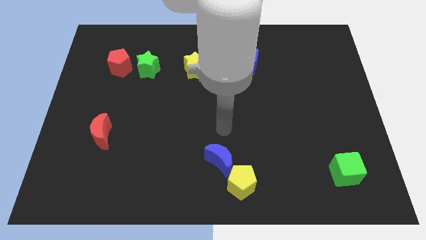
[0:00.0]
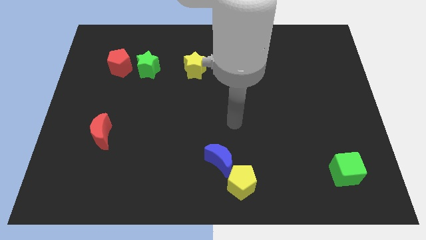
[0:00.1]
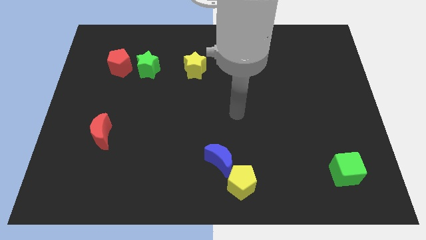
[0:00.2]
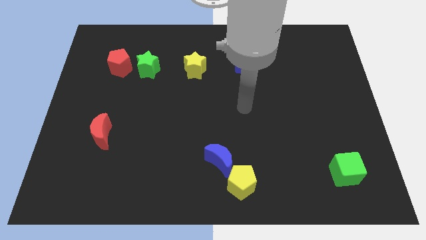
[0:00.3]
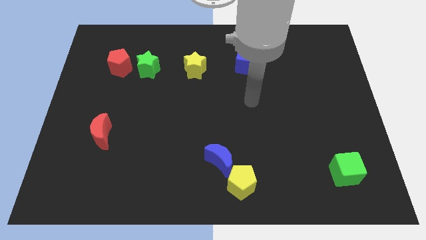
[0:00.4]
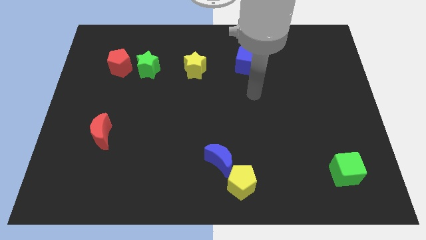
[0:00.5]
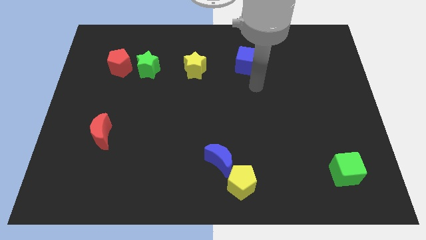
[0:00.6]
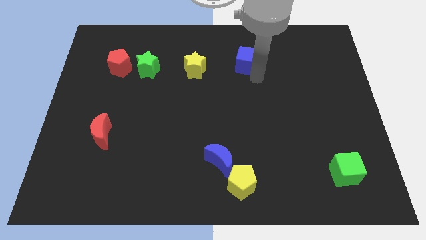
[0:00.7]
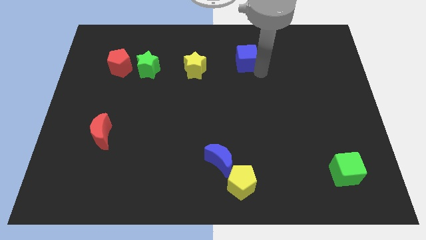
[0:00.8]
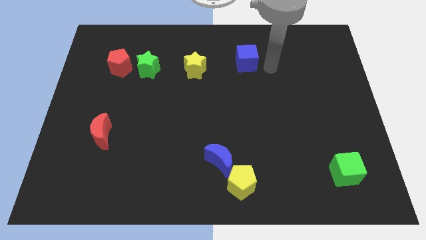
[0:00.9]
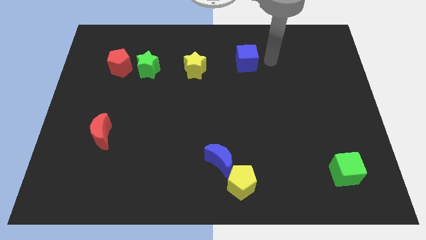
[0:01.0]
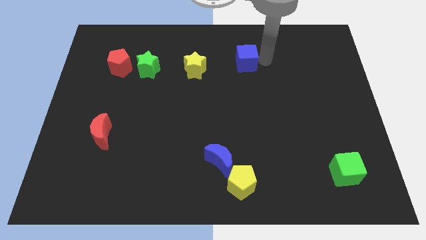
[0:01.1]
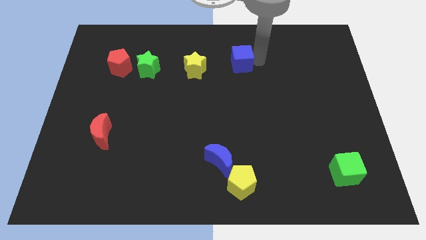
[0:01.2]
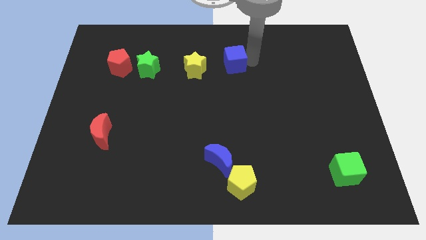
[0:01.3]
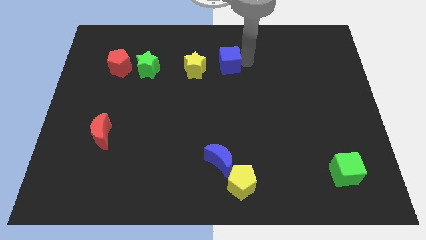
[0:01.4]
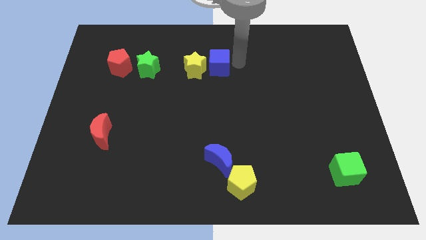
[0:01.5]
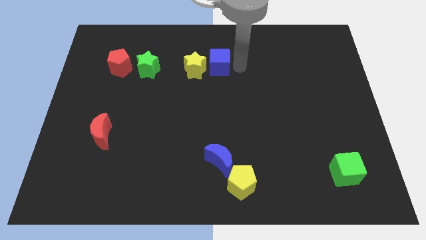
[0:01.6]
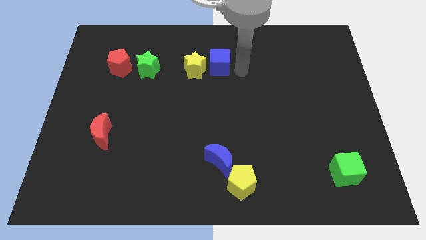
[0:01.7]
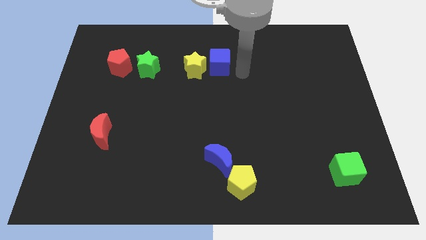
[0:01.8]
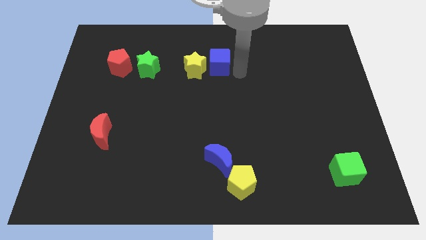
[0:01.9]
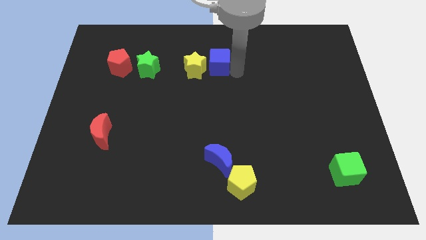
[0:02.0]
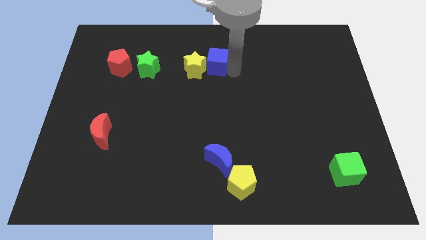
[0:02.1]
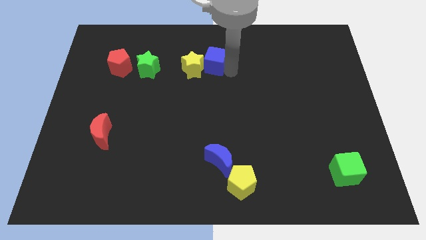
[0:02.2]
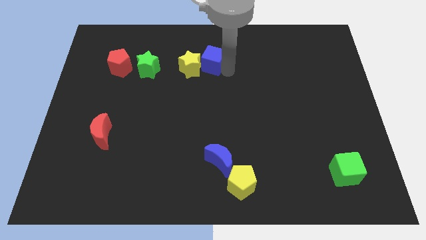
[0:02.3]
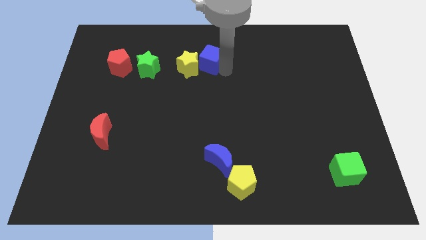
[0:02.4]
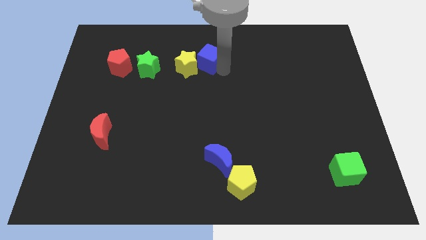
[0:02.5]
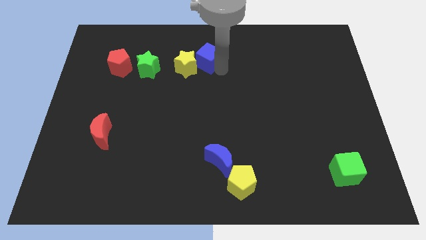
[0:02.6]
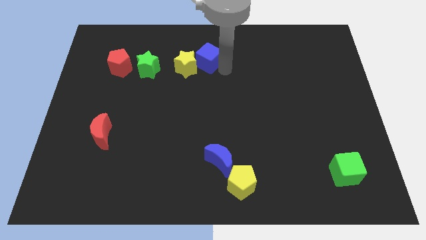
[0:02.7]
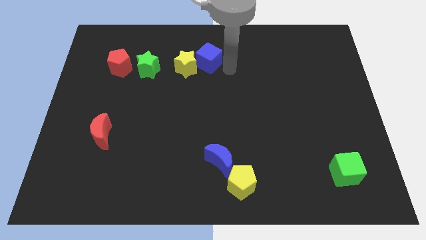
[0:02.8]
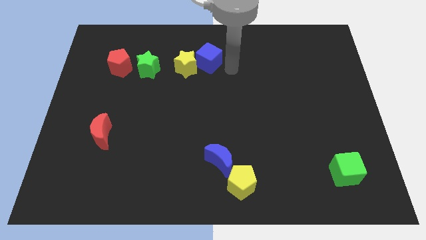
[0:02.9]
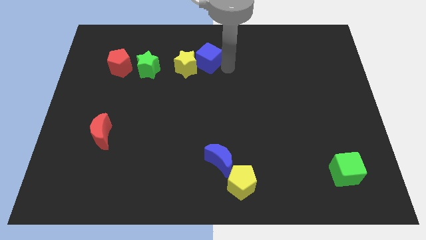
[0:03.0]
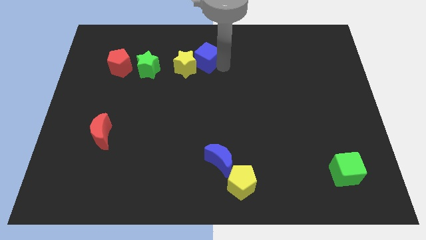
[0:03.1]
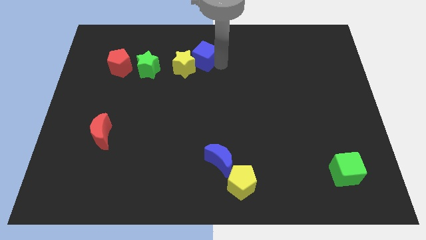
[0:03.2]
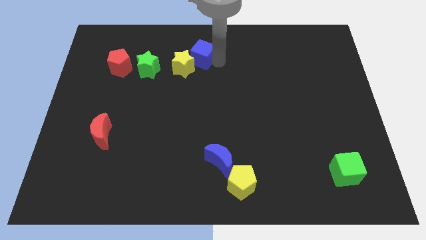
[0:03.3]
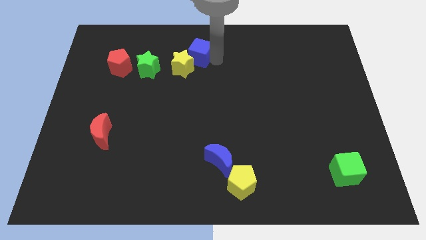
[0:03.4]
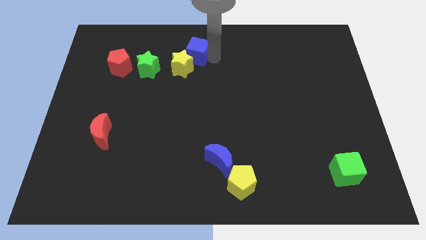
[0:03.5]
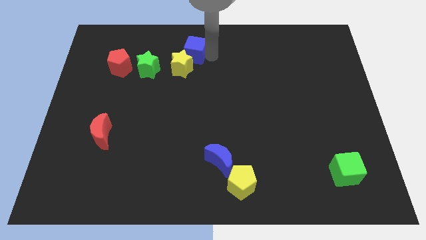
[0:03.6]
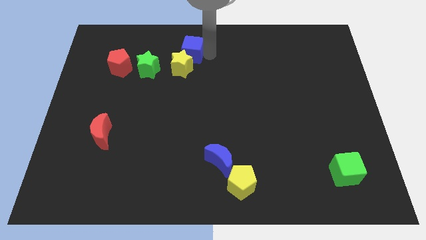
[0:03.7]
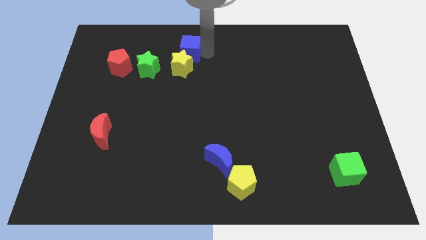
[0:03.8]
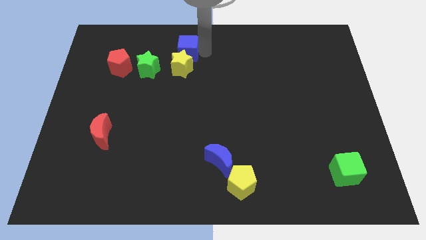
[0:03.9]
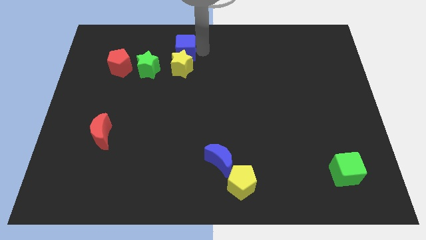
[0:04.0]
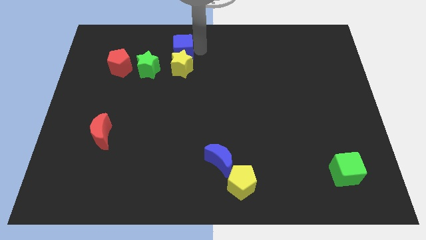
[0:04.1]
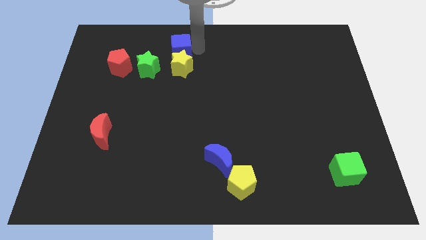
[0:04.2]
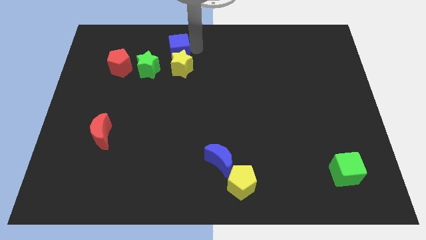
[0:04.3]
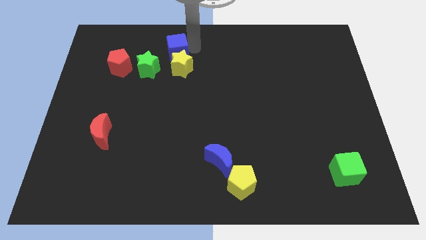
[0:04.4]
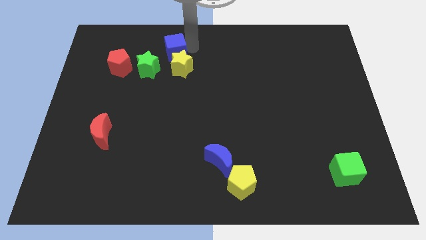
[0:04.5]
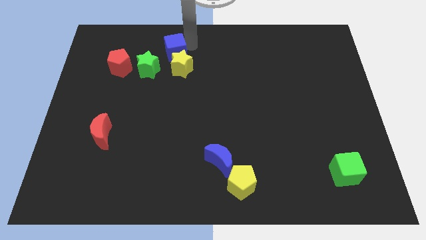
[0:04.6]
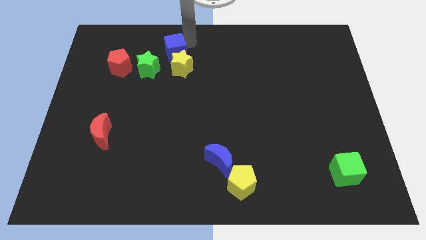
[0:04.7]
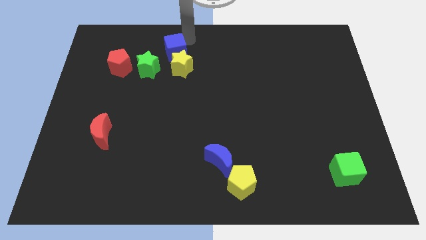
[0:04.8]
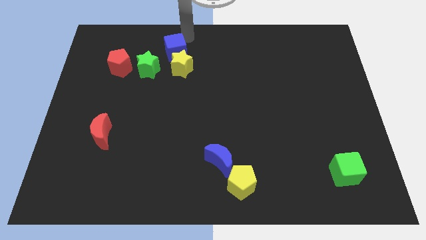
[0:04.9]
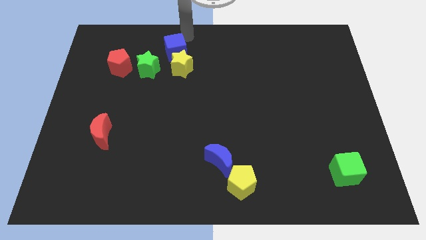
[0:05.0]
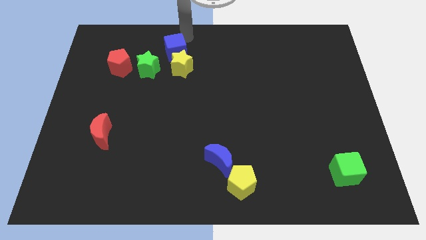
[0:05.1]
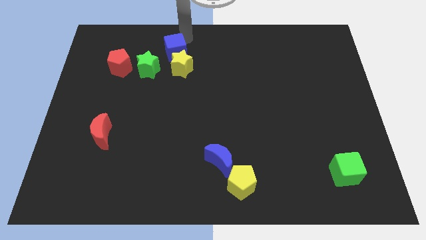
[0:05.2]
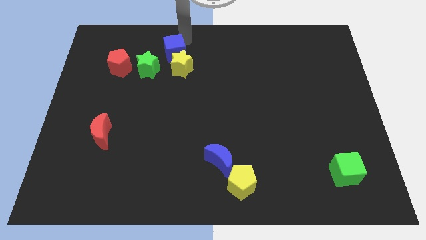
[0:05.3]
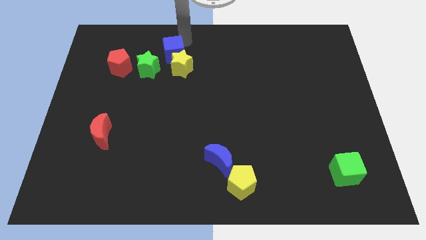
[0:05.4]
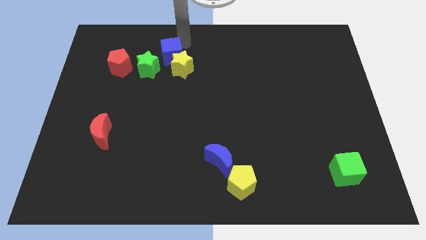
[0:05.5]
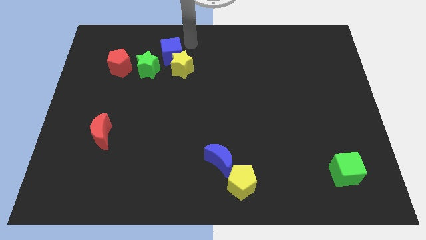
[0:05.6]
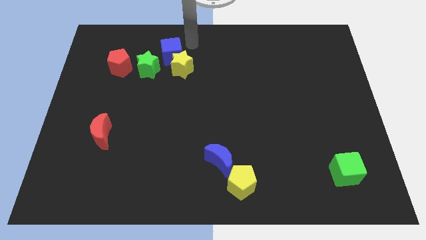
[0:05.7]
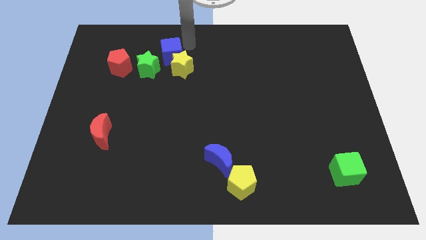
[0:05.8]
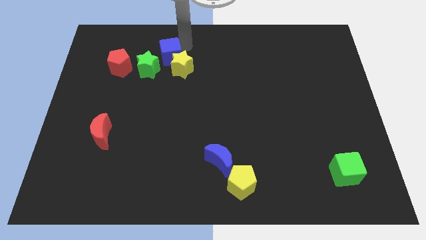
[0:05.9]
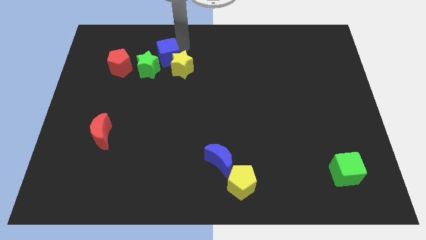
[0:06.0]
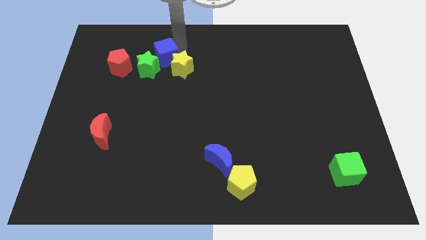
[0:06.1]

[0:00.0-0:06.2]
put the blue cube close to the green star

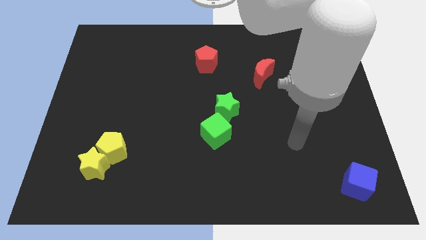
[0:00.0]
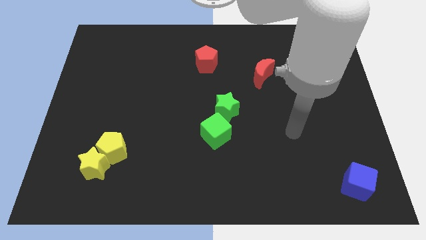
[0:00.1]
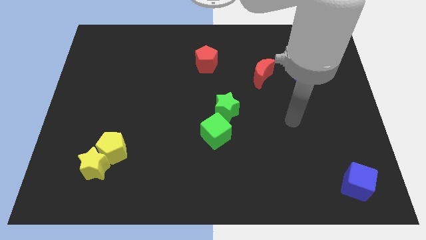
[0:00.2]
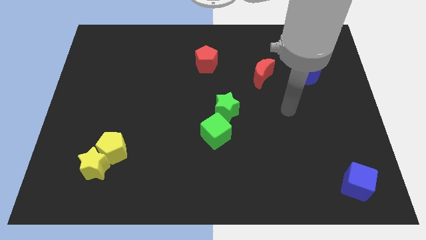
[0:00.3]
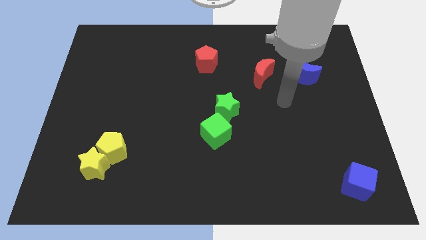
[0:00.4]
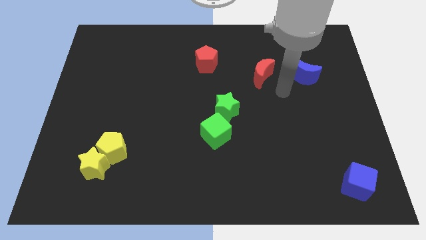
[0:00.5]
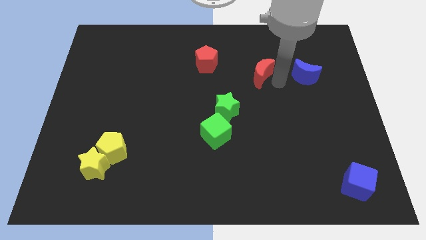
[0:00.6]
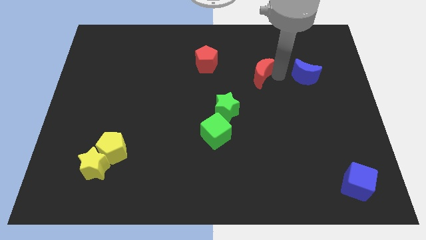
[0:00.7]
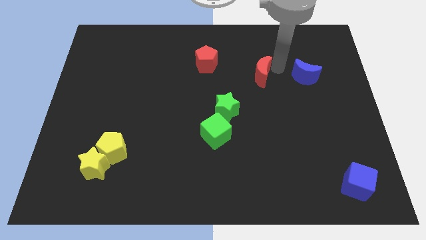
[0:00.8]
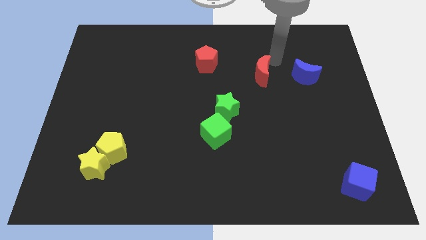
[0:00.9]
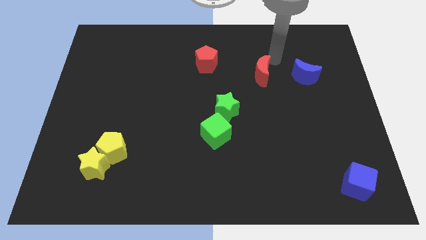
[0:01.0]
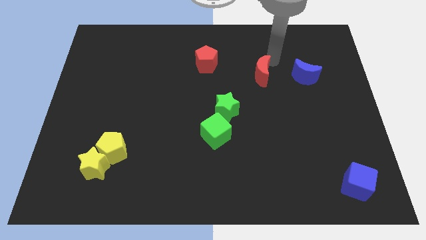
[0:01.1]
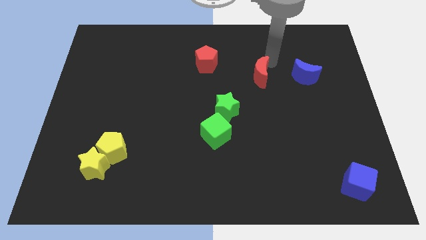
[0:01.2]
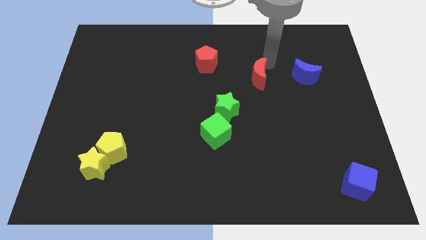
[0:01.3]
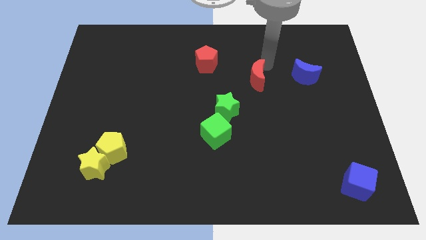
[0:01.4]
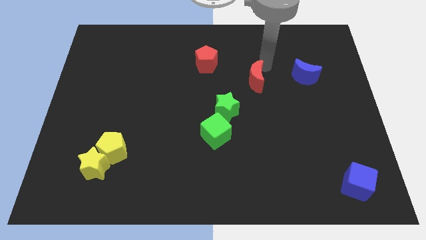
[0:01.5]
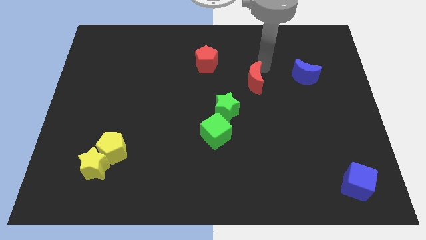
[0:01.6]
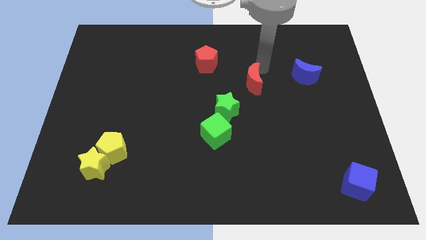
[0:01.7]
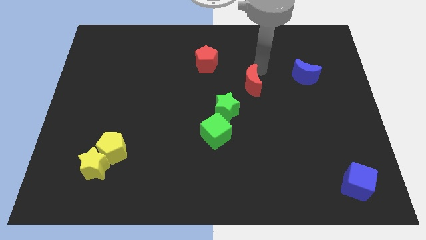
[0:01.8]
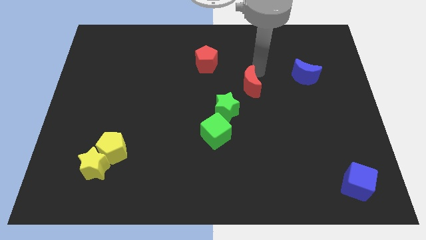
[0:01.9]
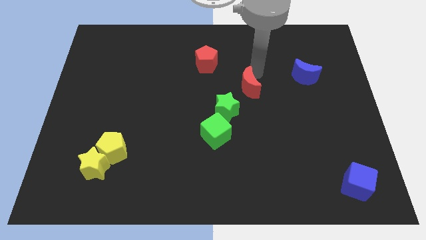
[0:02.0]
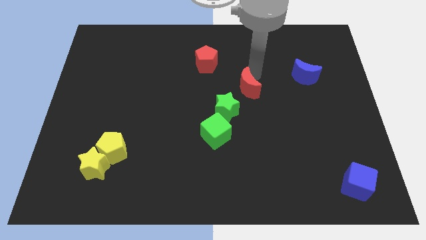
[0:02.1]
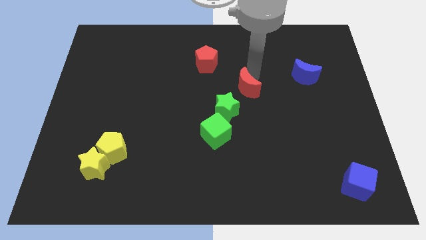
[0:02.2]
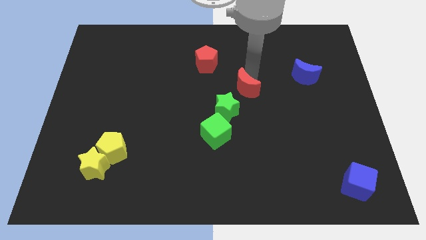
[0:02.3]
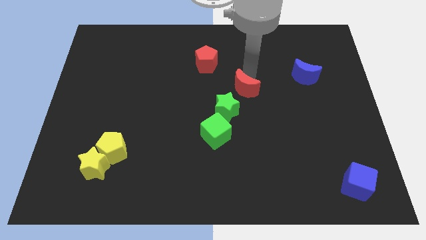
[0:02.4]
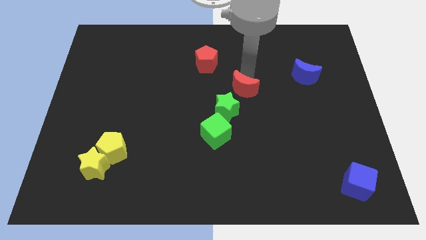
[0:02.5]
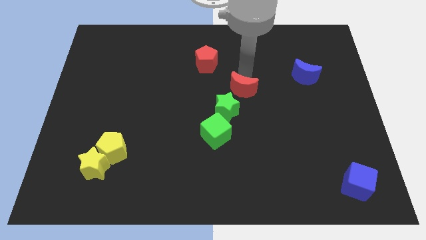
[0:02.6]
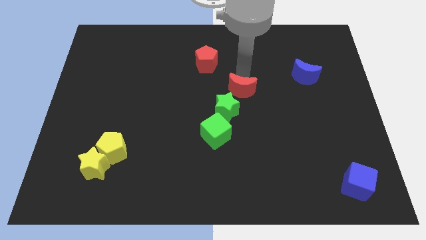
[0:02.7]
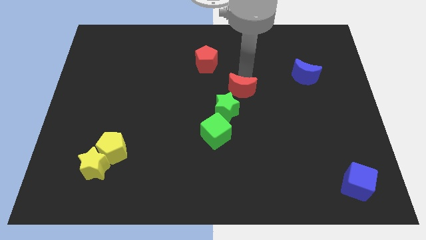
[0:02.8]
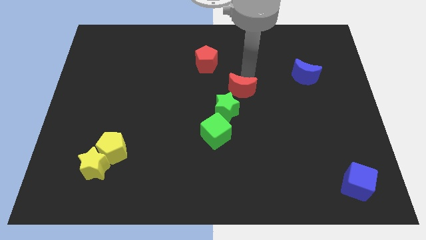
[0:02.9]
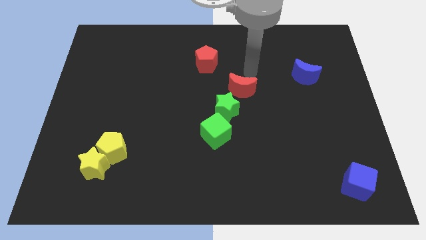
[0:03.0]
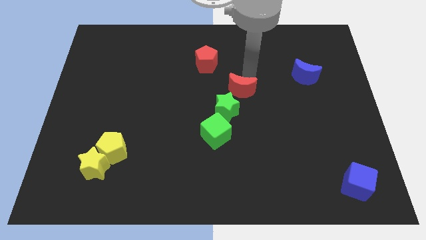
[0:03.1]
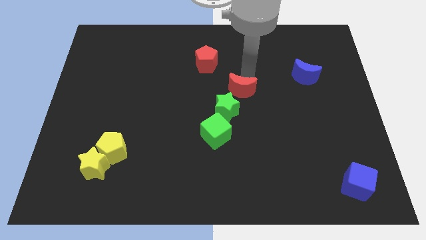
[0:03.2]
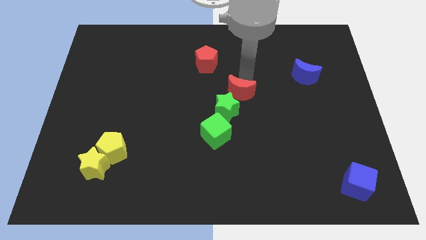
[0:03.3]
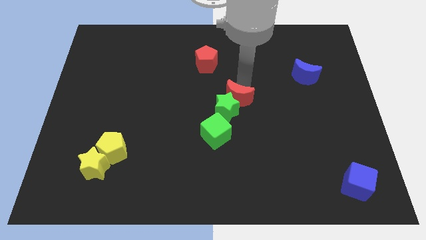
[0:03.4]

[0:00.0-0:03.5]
slide the red moon towards the green star
